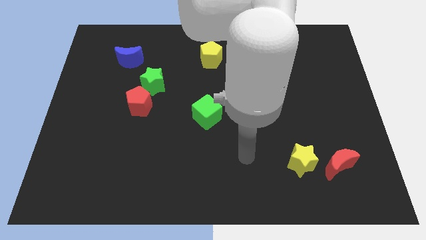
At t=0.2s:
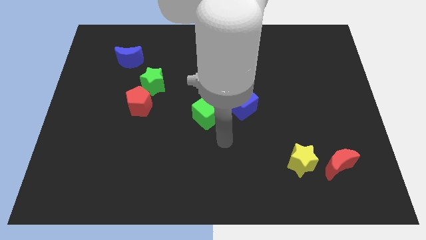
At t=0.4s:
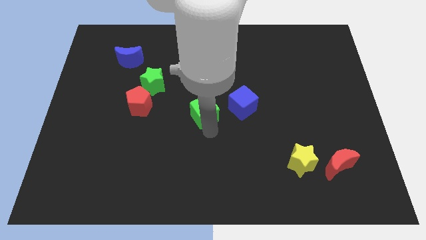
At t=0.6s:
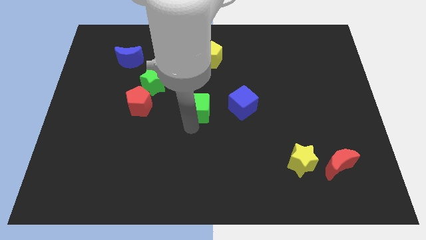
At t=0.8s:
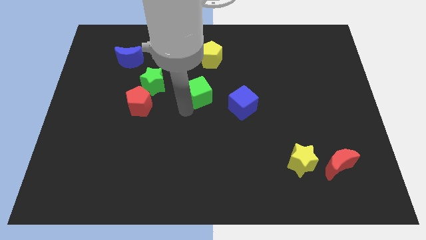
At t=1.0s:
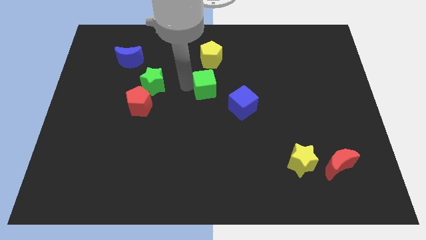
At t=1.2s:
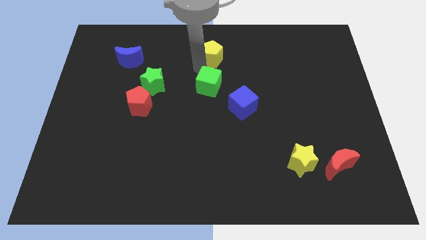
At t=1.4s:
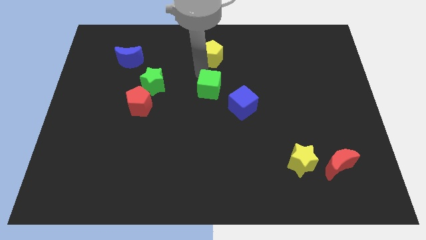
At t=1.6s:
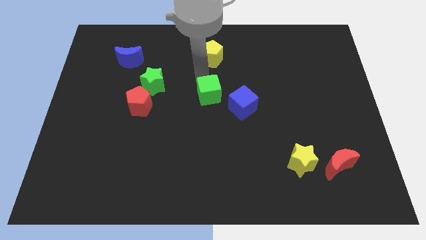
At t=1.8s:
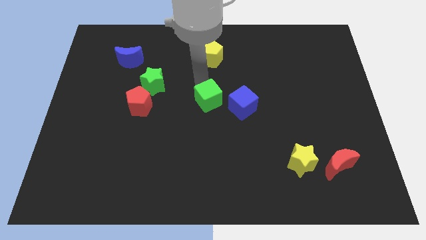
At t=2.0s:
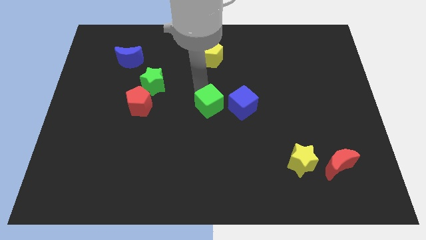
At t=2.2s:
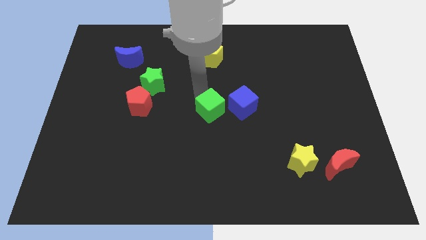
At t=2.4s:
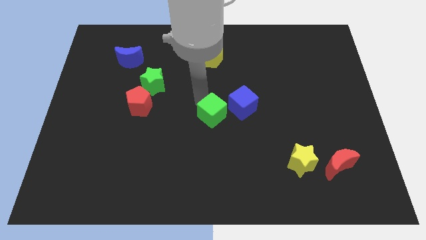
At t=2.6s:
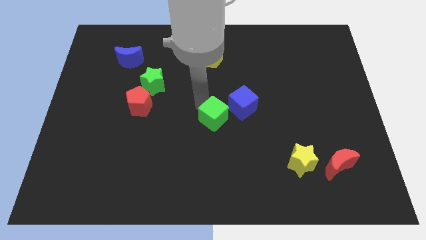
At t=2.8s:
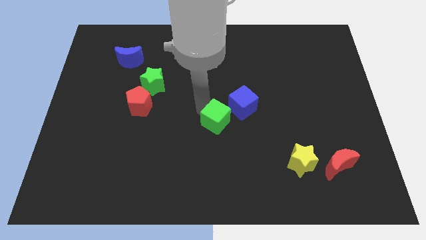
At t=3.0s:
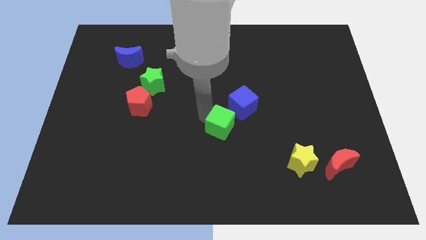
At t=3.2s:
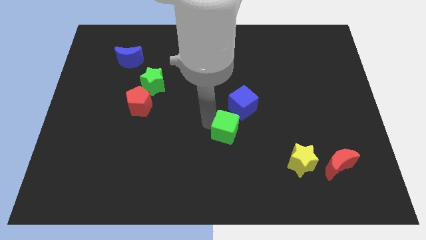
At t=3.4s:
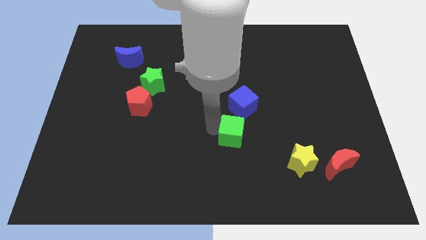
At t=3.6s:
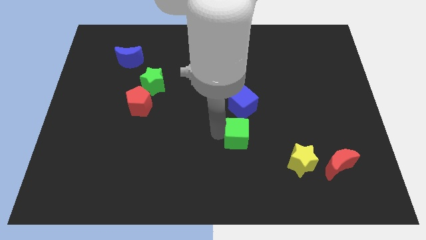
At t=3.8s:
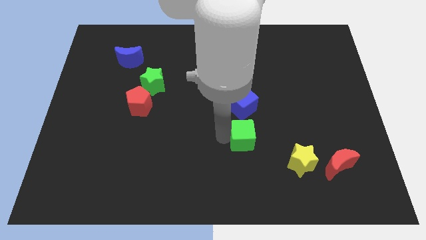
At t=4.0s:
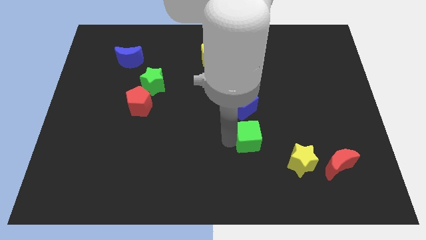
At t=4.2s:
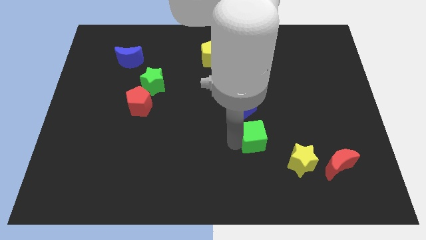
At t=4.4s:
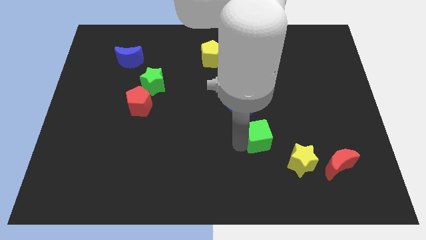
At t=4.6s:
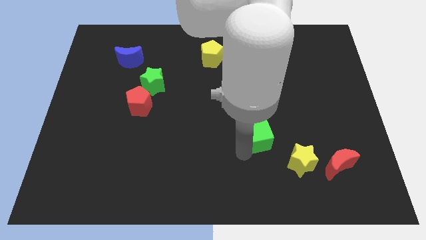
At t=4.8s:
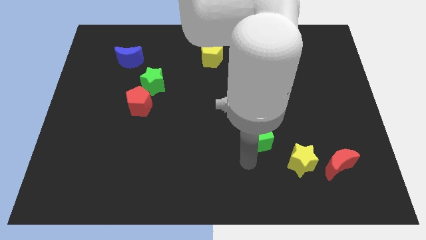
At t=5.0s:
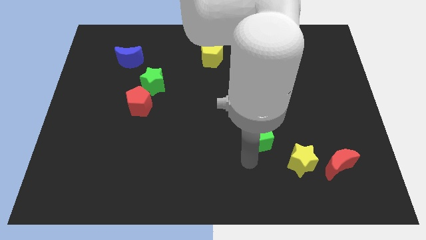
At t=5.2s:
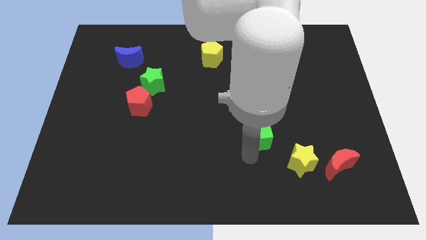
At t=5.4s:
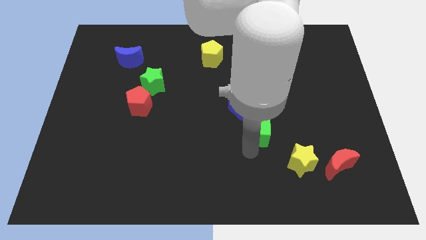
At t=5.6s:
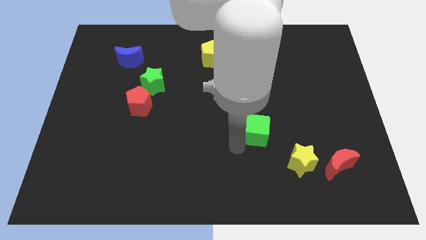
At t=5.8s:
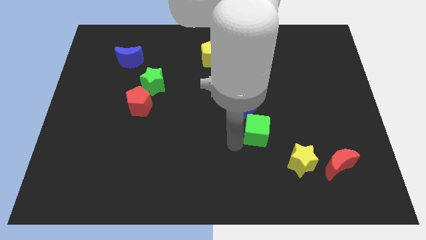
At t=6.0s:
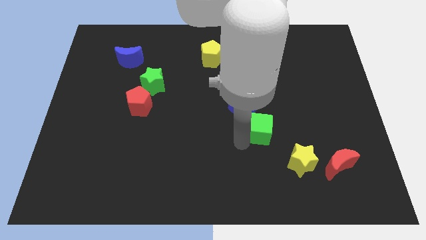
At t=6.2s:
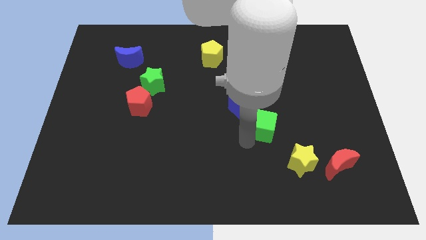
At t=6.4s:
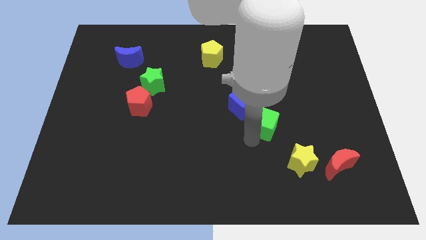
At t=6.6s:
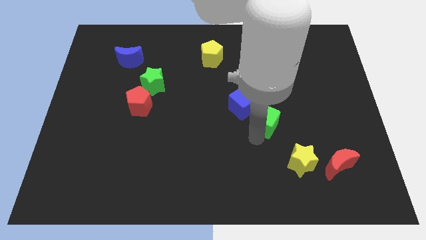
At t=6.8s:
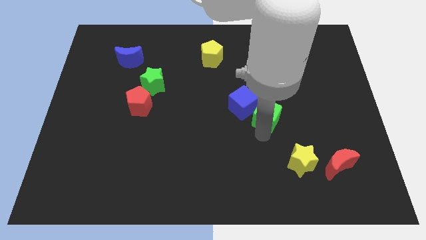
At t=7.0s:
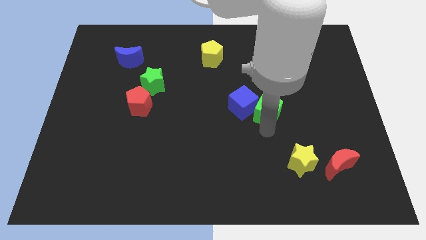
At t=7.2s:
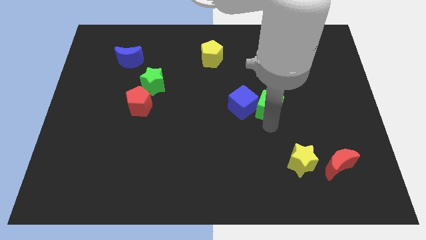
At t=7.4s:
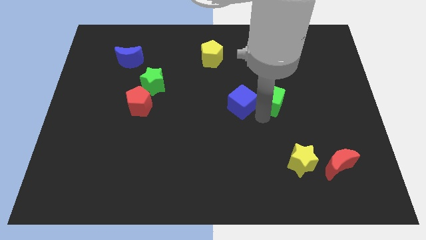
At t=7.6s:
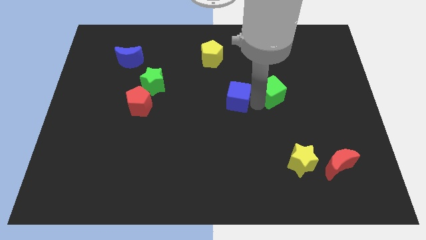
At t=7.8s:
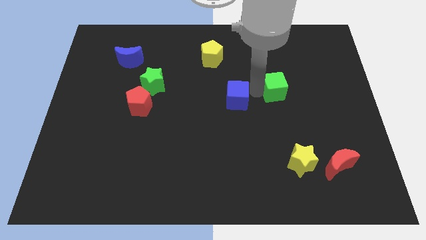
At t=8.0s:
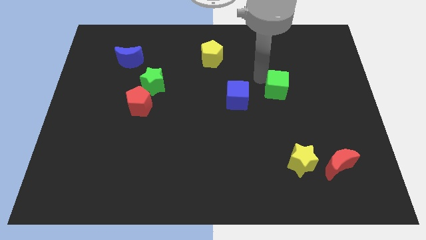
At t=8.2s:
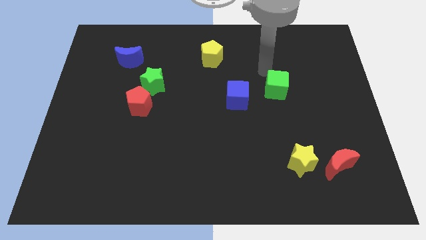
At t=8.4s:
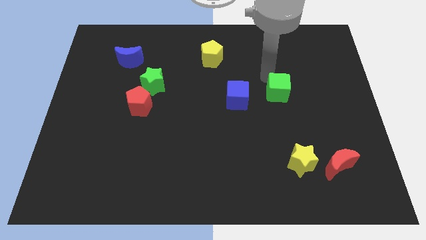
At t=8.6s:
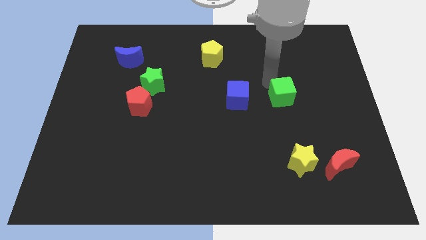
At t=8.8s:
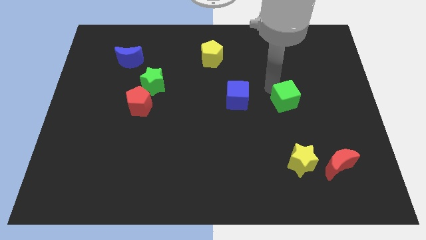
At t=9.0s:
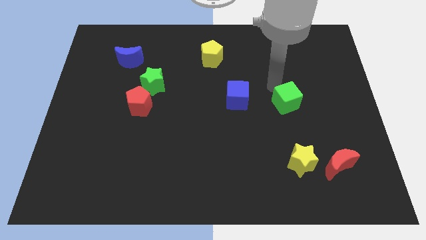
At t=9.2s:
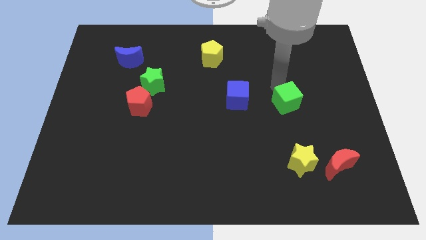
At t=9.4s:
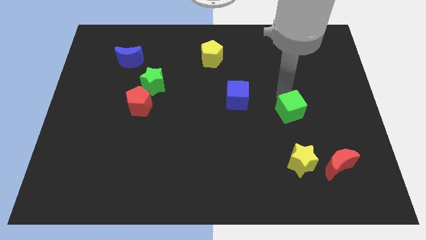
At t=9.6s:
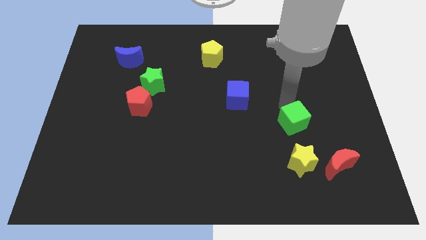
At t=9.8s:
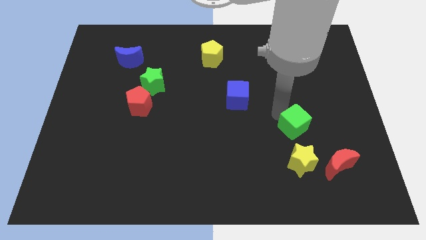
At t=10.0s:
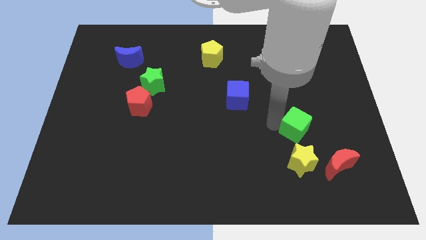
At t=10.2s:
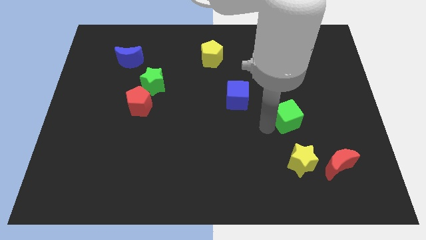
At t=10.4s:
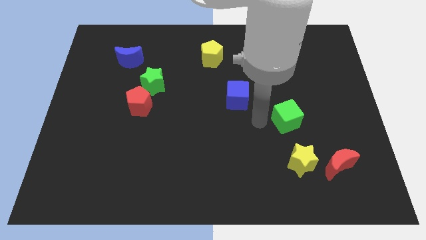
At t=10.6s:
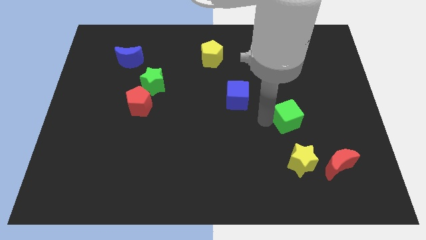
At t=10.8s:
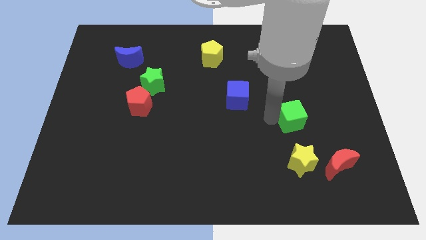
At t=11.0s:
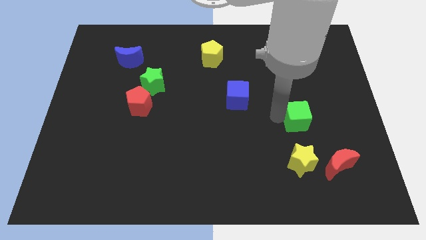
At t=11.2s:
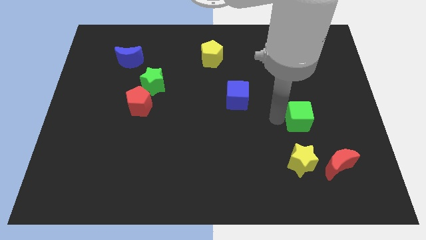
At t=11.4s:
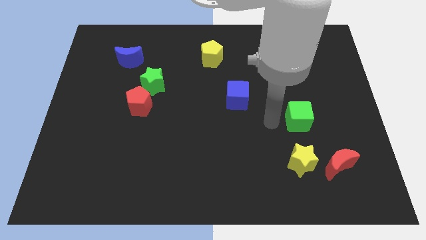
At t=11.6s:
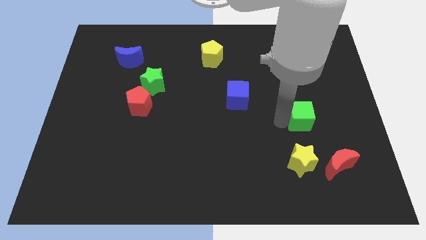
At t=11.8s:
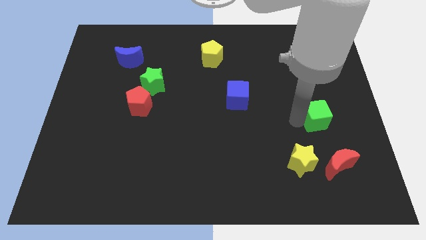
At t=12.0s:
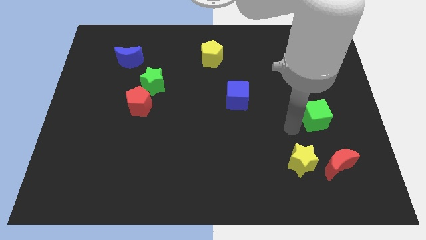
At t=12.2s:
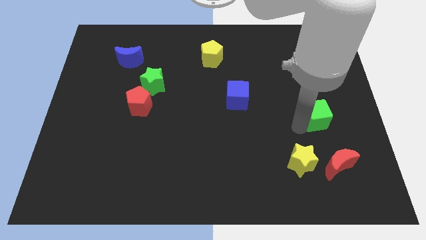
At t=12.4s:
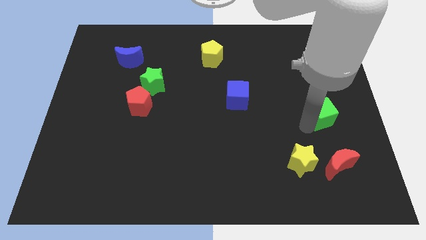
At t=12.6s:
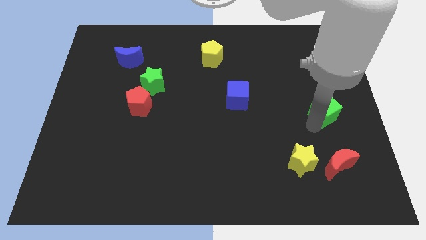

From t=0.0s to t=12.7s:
move the green cube to the center right

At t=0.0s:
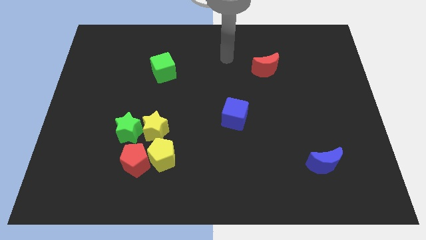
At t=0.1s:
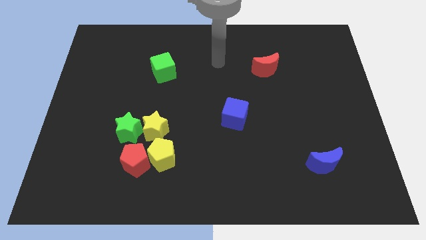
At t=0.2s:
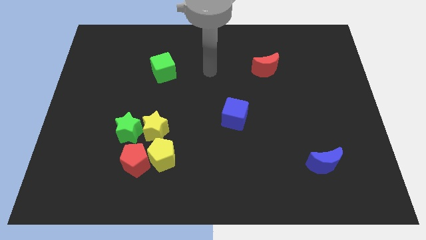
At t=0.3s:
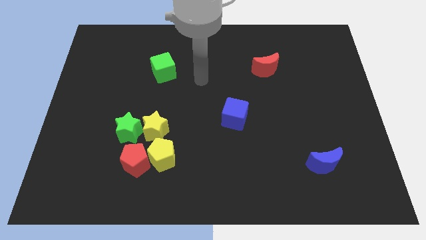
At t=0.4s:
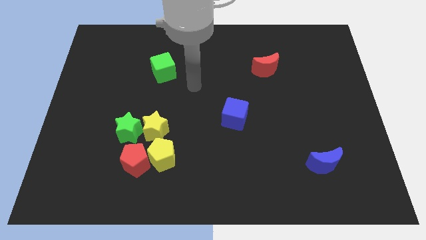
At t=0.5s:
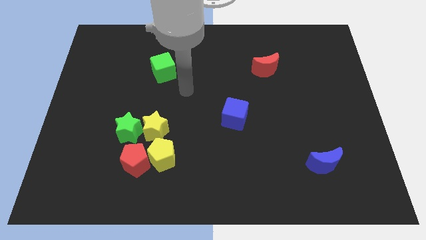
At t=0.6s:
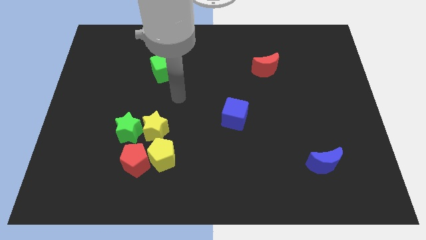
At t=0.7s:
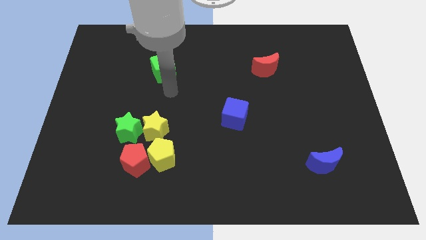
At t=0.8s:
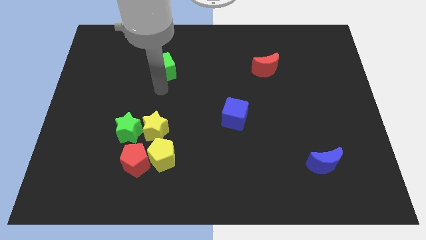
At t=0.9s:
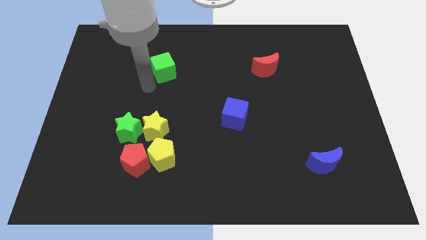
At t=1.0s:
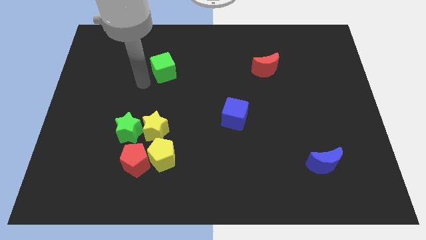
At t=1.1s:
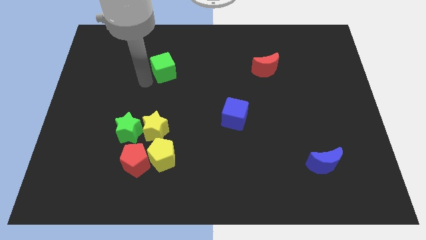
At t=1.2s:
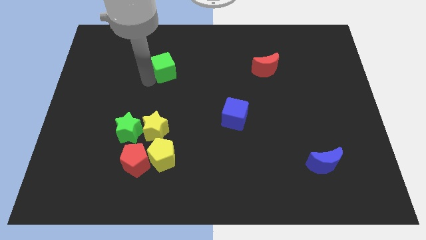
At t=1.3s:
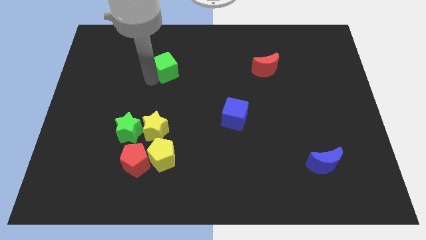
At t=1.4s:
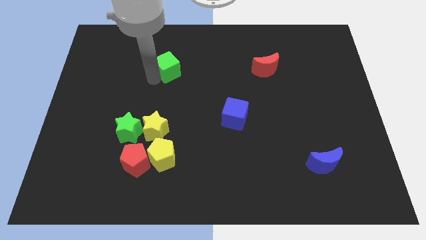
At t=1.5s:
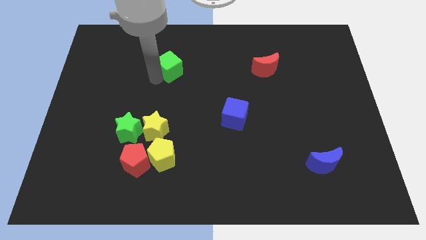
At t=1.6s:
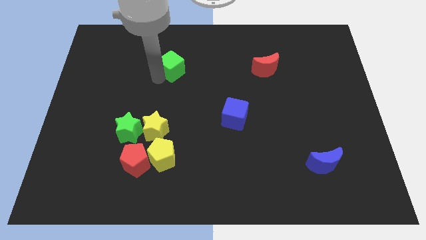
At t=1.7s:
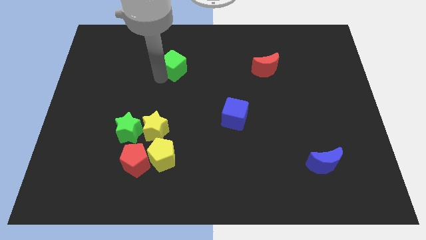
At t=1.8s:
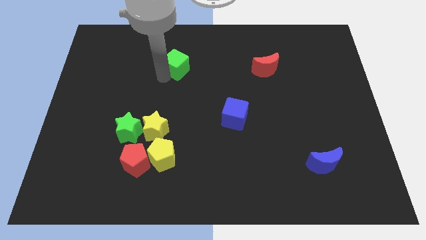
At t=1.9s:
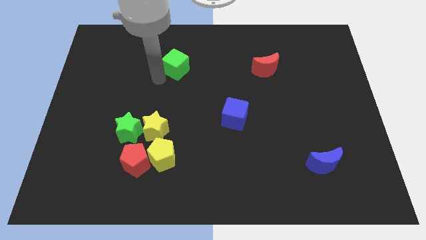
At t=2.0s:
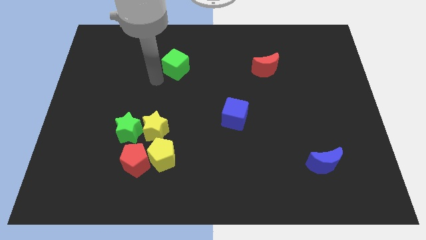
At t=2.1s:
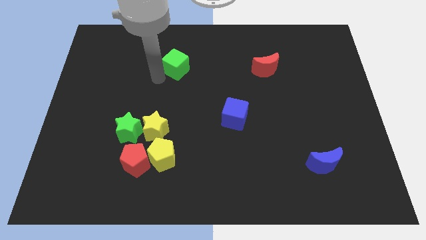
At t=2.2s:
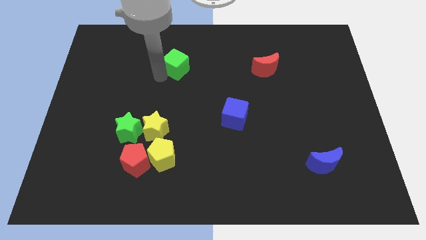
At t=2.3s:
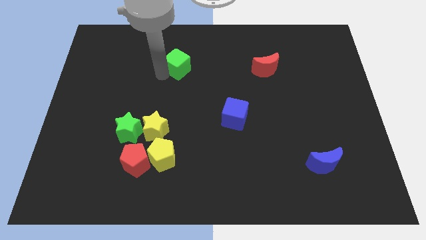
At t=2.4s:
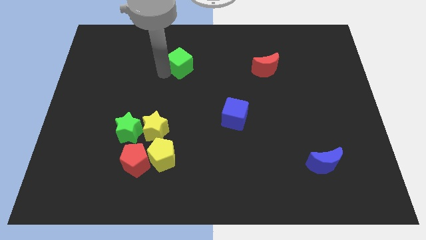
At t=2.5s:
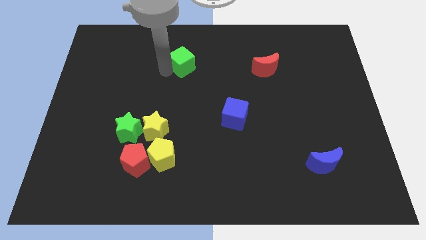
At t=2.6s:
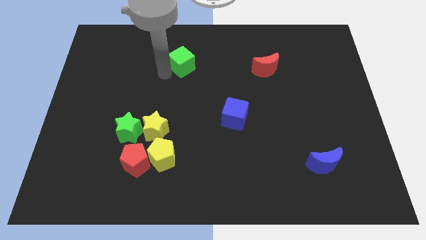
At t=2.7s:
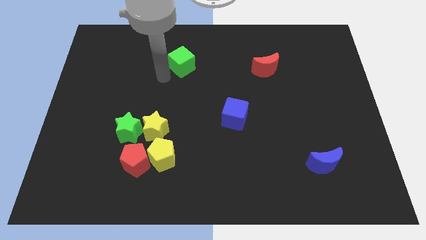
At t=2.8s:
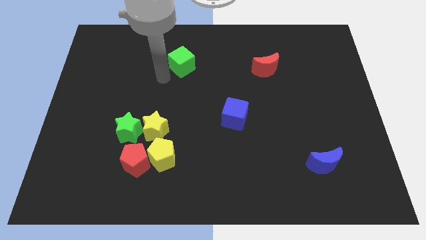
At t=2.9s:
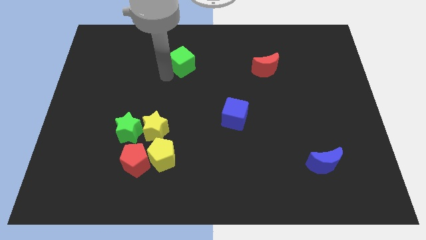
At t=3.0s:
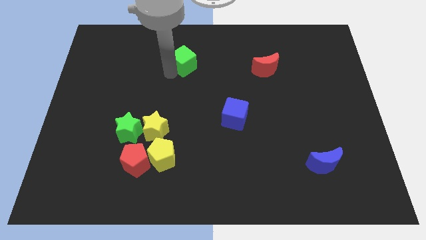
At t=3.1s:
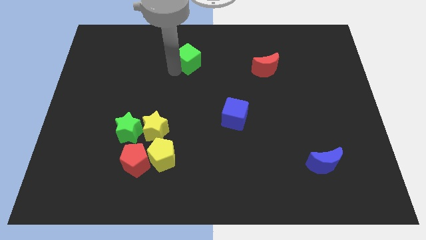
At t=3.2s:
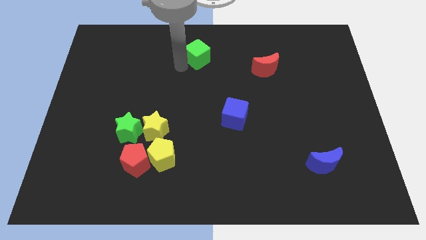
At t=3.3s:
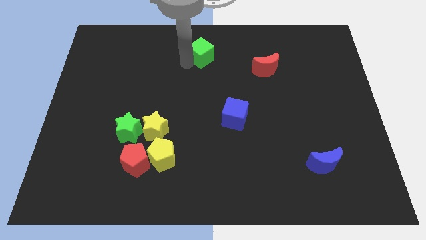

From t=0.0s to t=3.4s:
move the green cube to the towards your base
